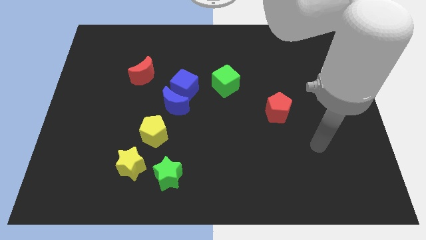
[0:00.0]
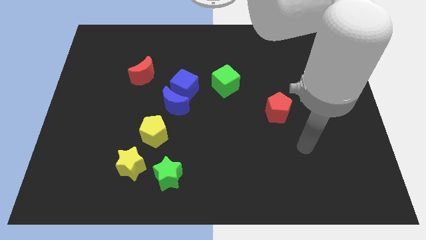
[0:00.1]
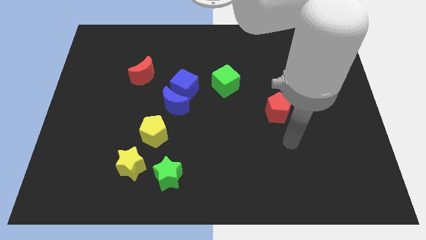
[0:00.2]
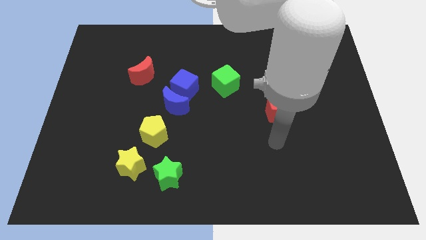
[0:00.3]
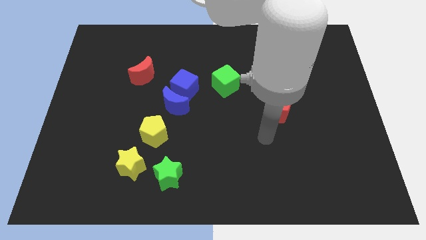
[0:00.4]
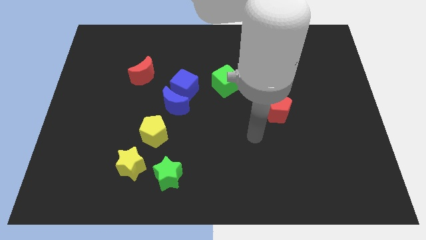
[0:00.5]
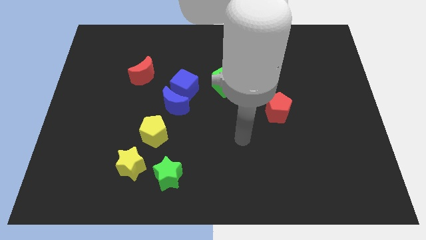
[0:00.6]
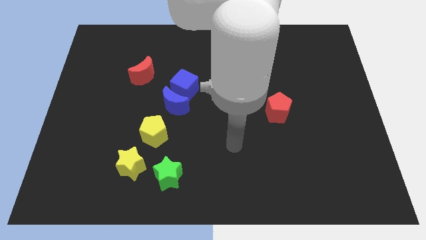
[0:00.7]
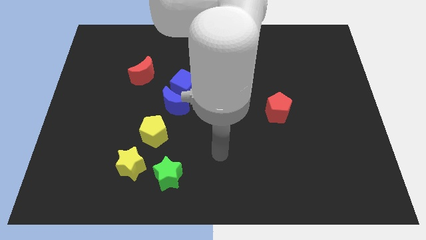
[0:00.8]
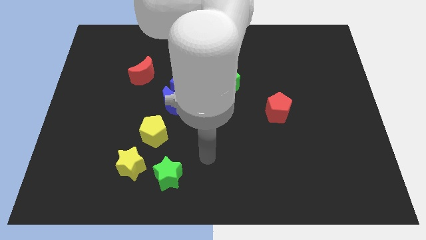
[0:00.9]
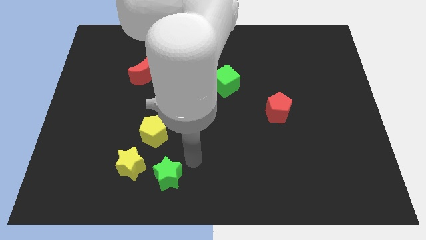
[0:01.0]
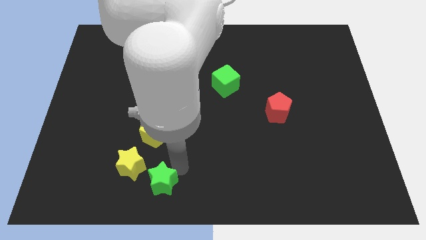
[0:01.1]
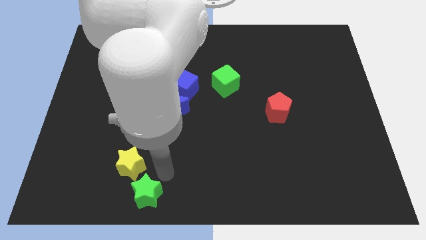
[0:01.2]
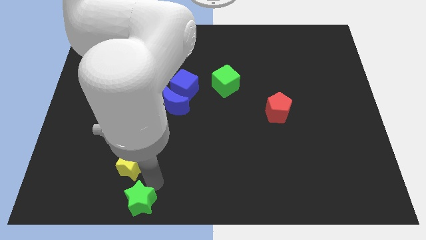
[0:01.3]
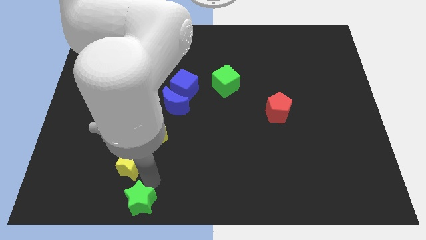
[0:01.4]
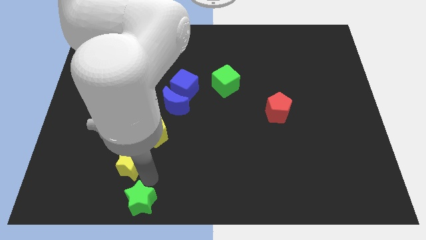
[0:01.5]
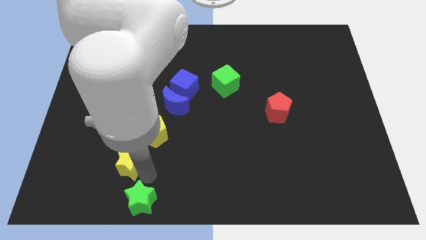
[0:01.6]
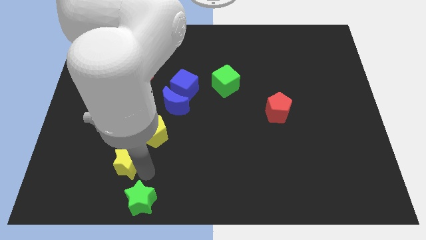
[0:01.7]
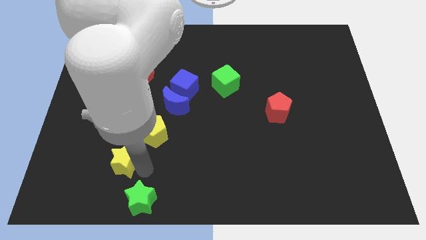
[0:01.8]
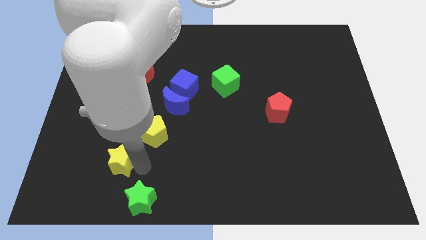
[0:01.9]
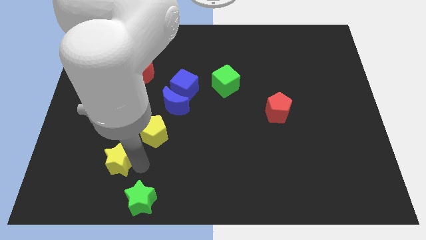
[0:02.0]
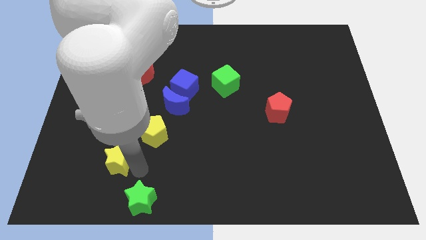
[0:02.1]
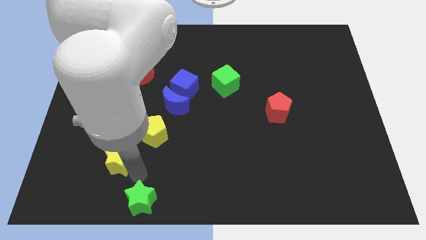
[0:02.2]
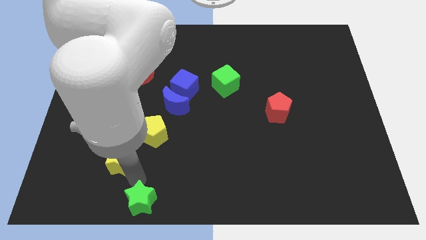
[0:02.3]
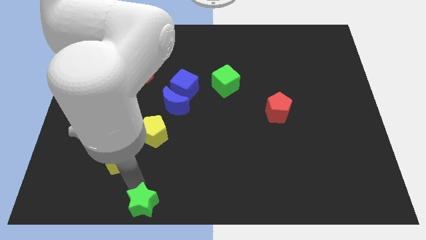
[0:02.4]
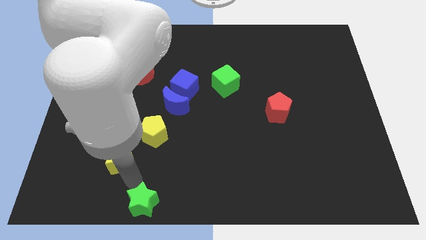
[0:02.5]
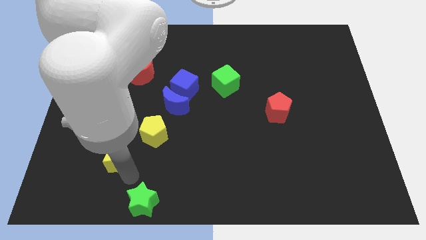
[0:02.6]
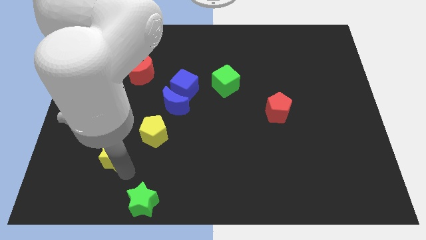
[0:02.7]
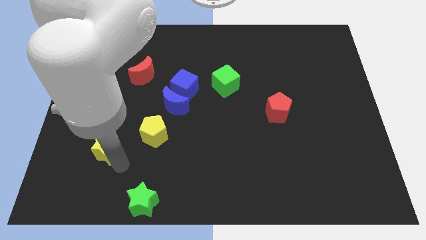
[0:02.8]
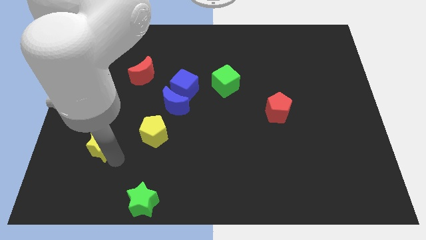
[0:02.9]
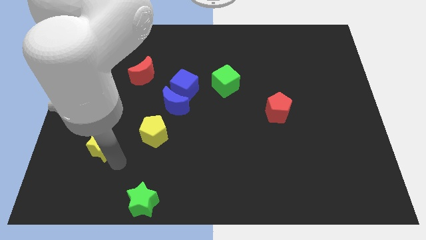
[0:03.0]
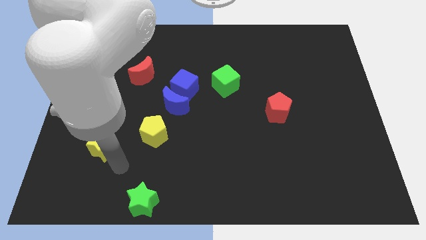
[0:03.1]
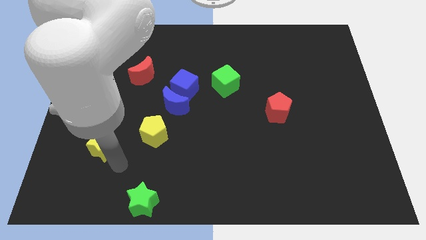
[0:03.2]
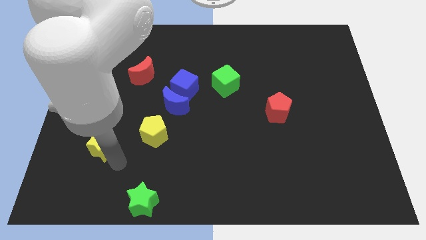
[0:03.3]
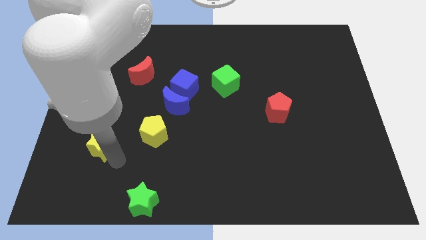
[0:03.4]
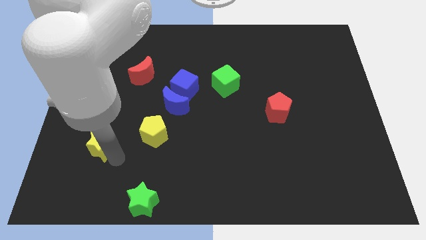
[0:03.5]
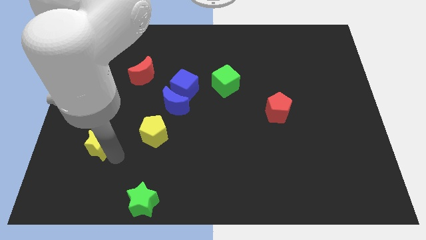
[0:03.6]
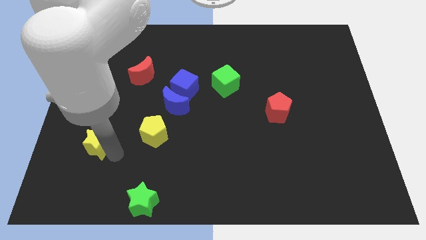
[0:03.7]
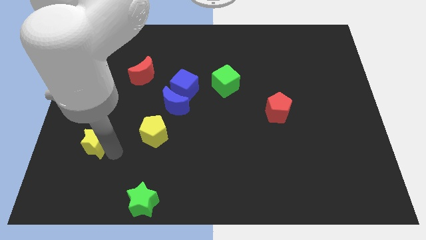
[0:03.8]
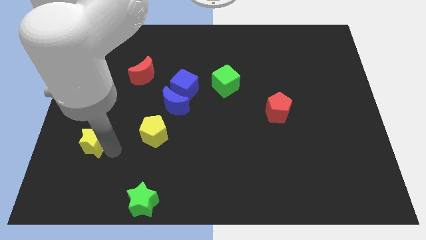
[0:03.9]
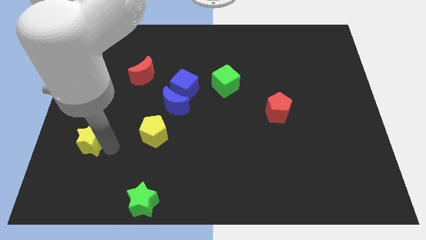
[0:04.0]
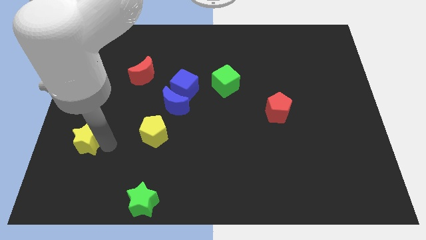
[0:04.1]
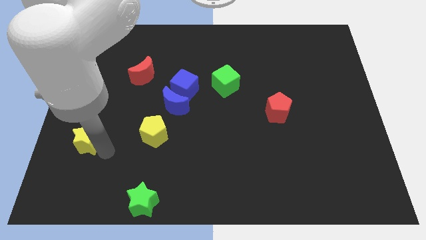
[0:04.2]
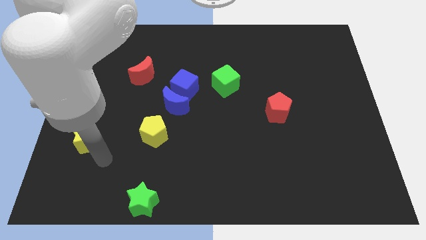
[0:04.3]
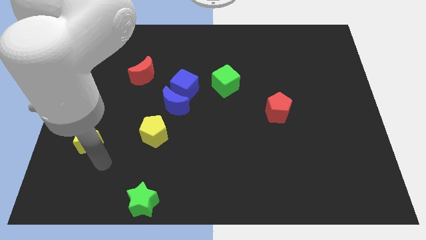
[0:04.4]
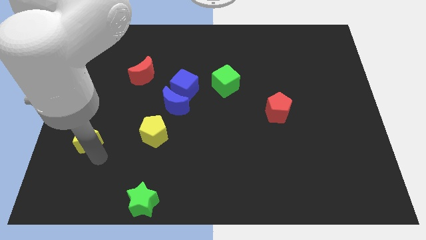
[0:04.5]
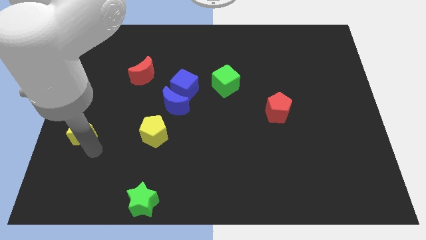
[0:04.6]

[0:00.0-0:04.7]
move the yellow star to the center left

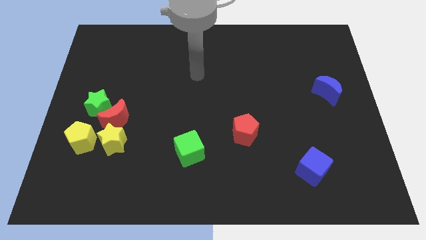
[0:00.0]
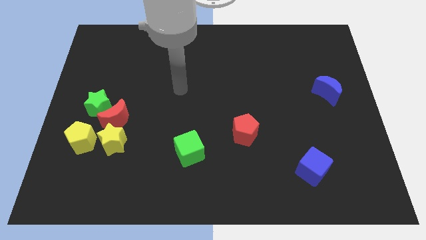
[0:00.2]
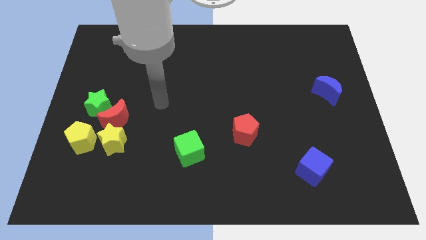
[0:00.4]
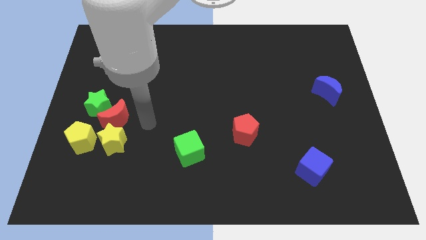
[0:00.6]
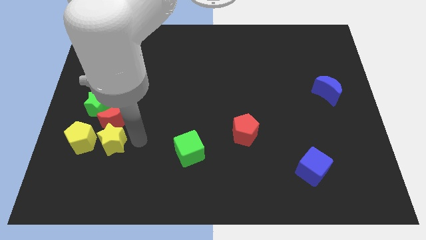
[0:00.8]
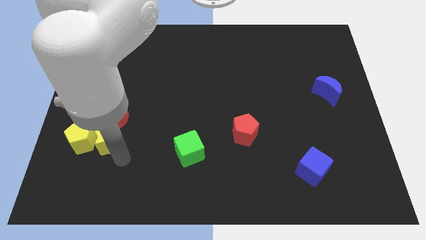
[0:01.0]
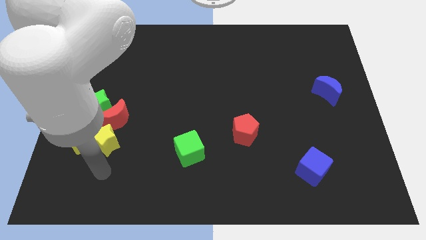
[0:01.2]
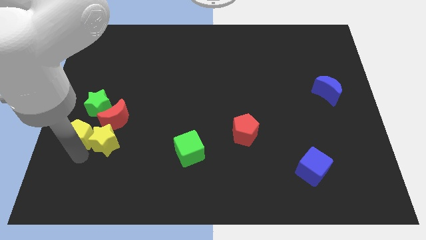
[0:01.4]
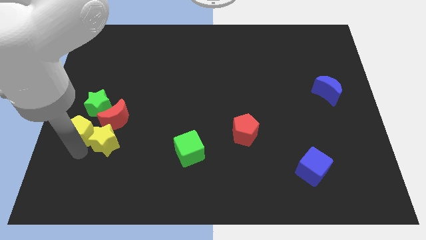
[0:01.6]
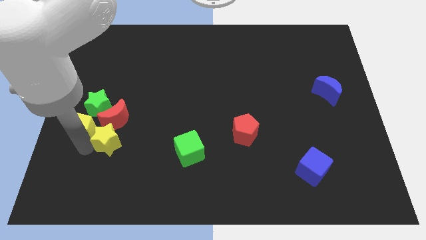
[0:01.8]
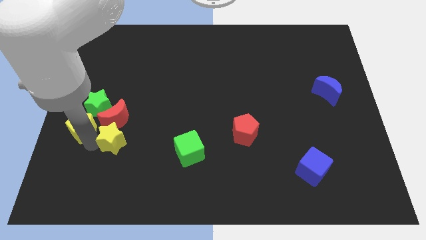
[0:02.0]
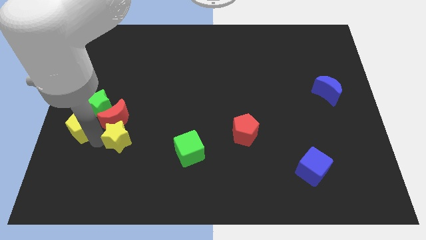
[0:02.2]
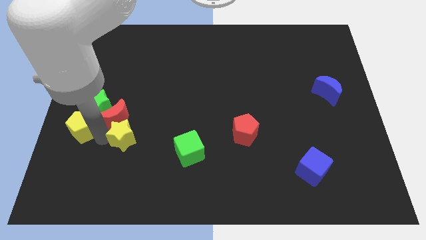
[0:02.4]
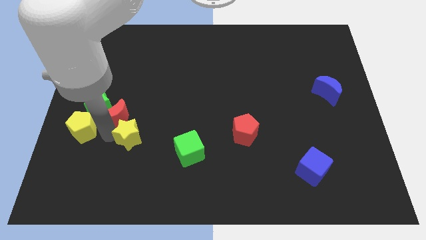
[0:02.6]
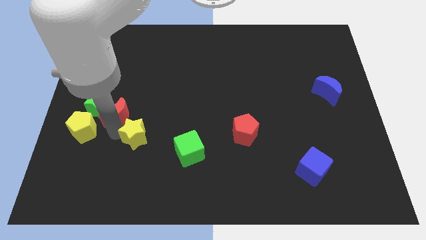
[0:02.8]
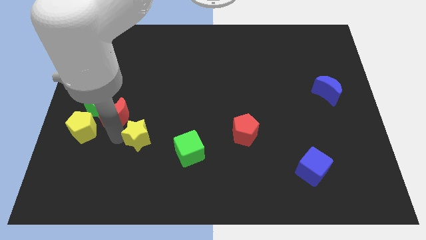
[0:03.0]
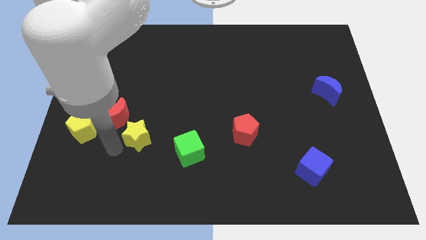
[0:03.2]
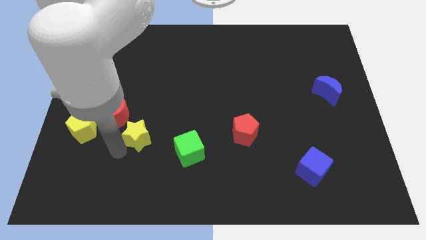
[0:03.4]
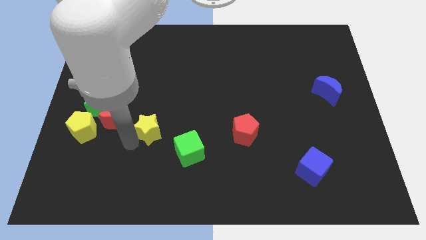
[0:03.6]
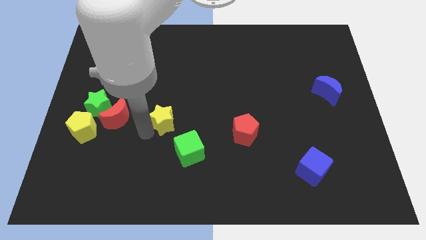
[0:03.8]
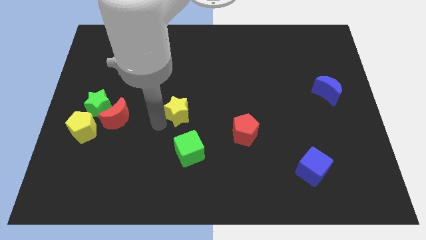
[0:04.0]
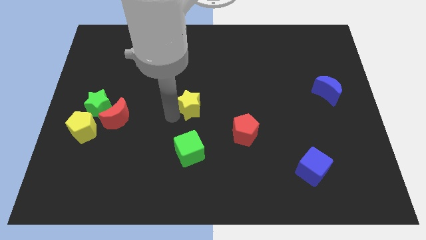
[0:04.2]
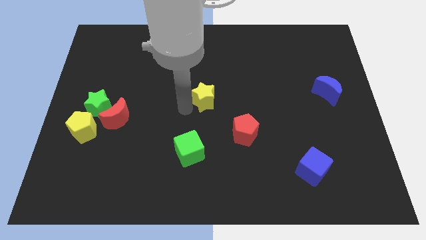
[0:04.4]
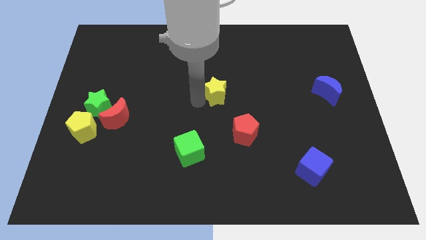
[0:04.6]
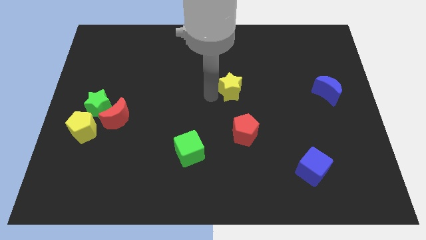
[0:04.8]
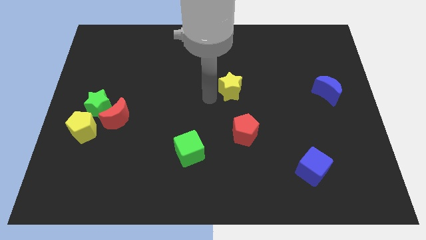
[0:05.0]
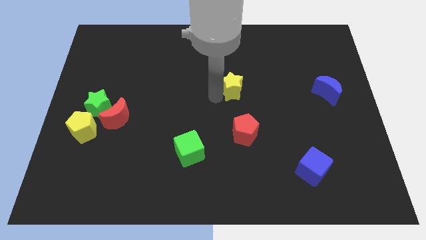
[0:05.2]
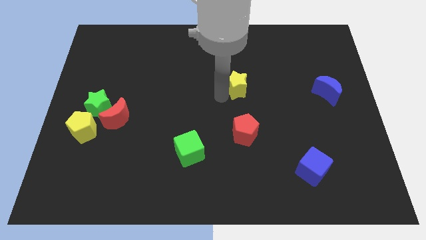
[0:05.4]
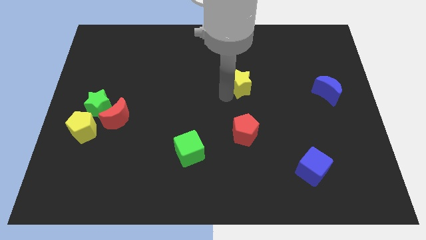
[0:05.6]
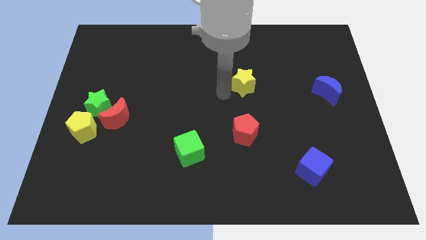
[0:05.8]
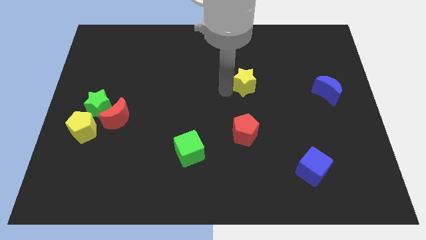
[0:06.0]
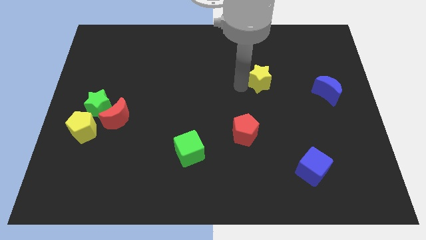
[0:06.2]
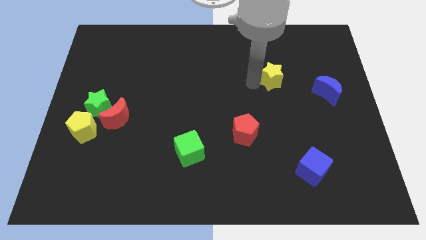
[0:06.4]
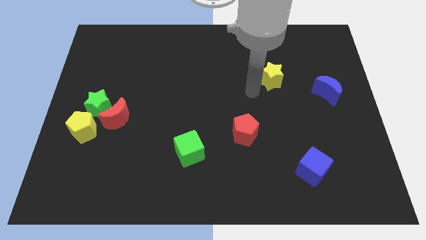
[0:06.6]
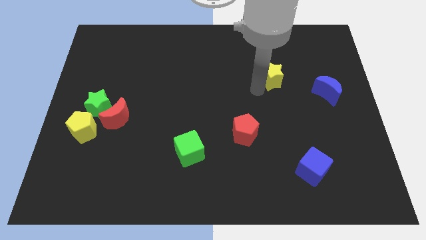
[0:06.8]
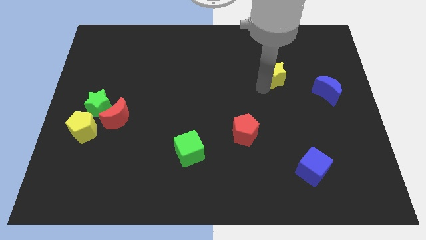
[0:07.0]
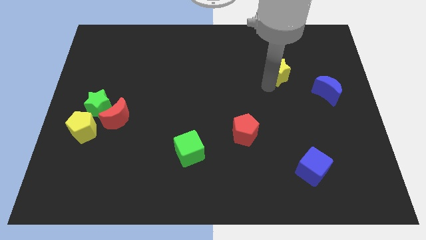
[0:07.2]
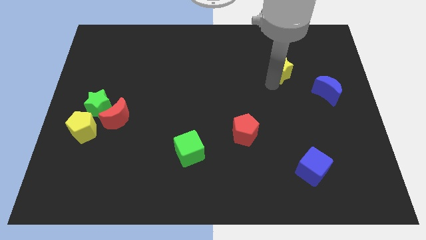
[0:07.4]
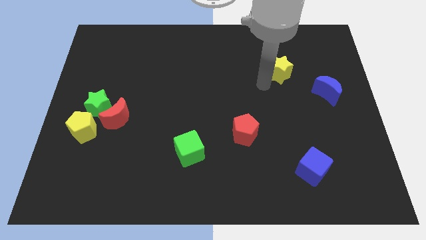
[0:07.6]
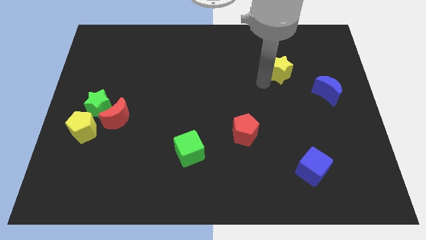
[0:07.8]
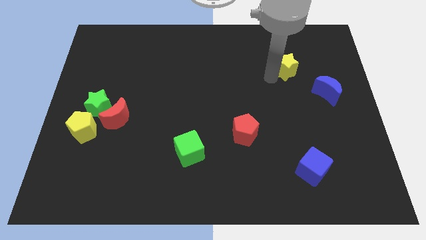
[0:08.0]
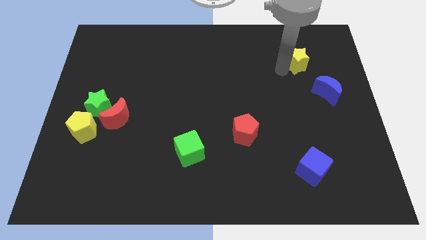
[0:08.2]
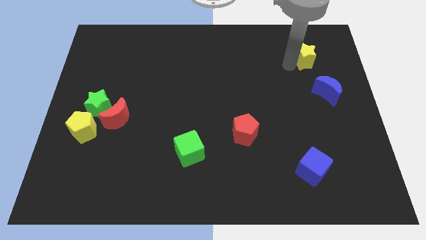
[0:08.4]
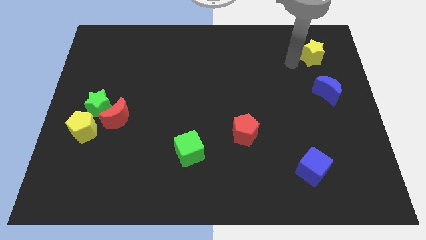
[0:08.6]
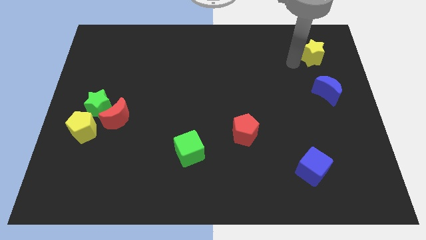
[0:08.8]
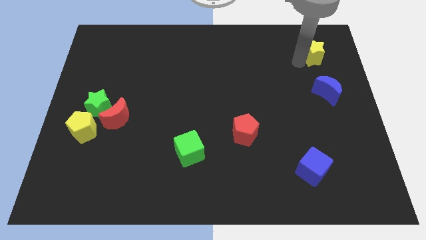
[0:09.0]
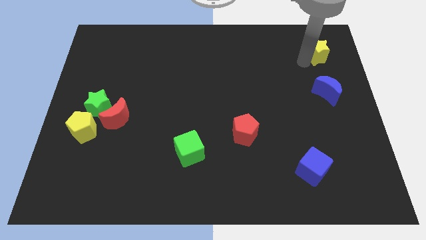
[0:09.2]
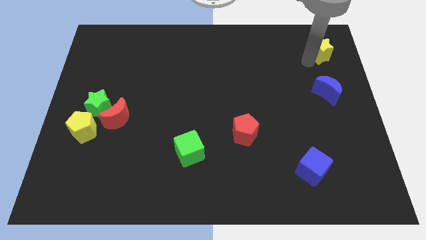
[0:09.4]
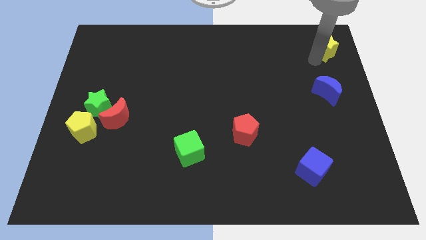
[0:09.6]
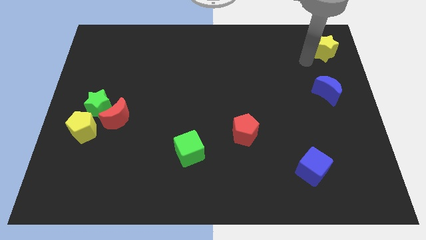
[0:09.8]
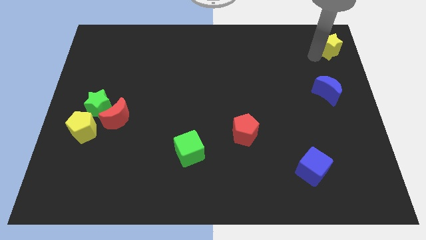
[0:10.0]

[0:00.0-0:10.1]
push the yellow star to the top right of the board
